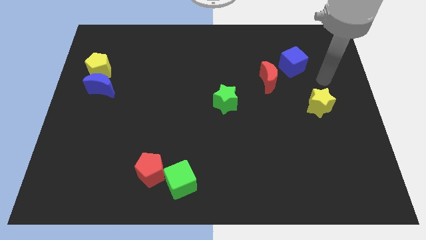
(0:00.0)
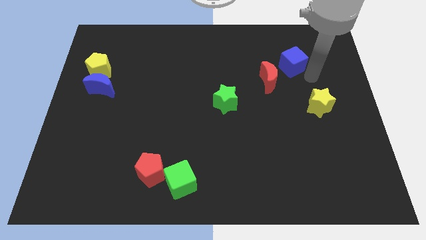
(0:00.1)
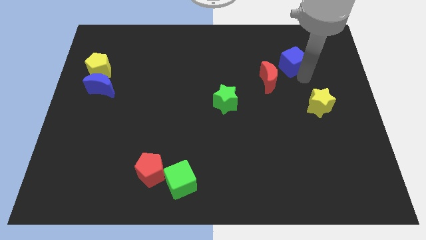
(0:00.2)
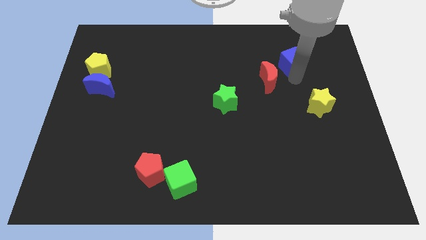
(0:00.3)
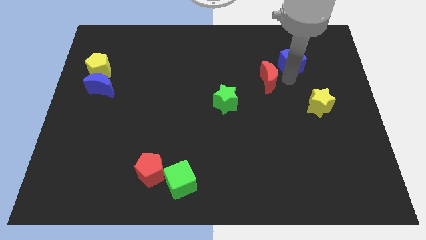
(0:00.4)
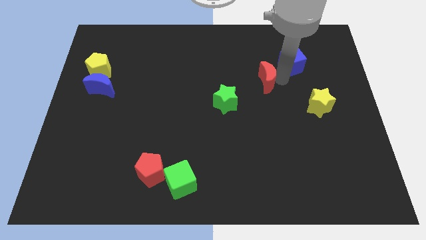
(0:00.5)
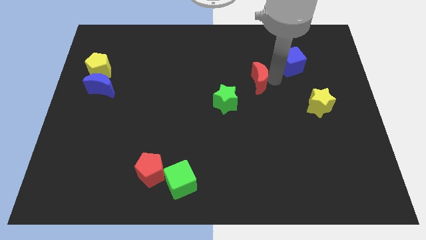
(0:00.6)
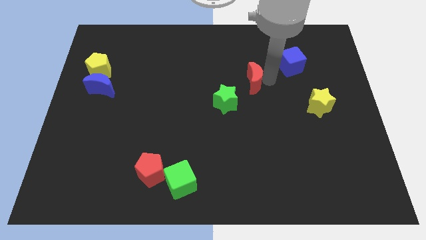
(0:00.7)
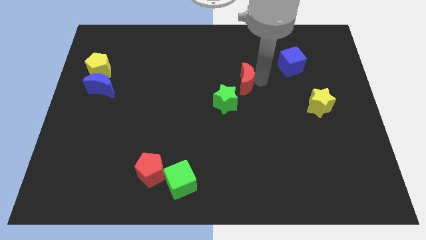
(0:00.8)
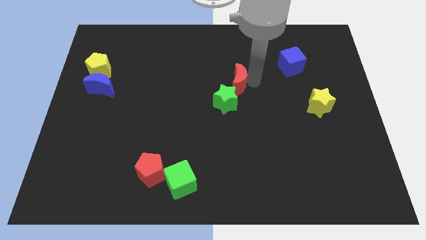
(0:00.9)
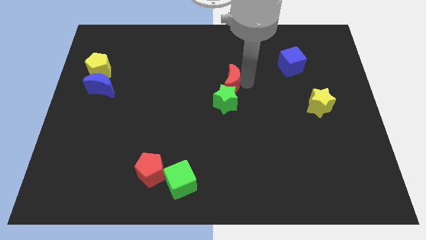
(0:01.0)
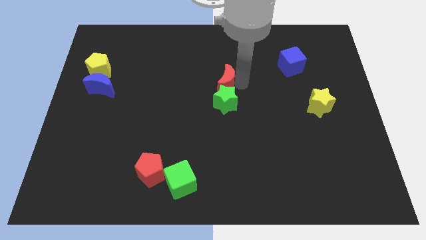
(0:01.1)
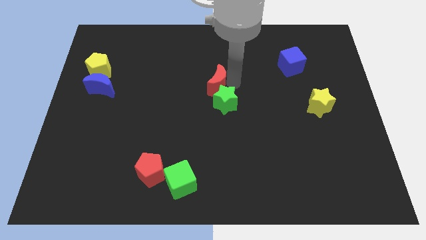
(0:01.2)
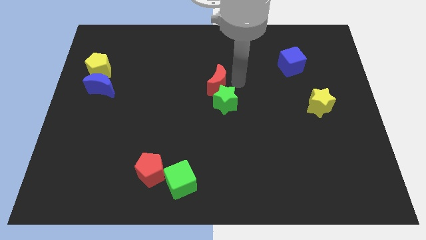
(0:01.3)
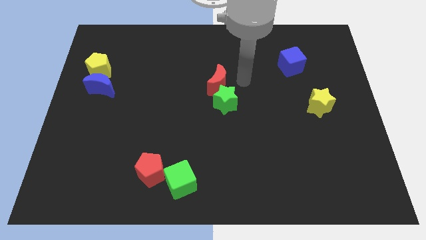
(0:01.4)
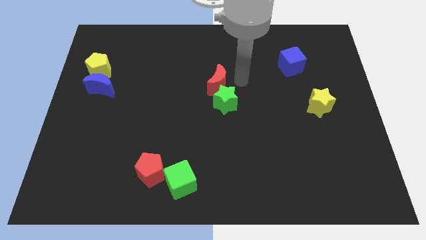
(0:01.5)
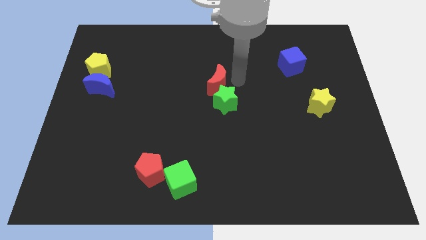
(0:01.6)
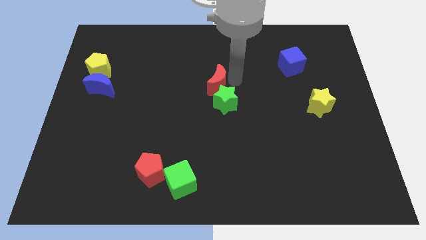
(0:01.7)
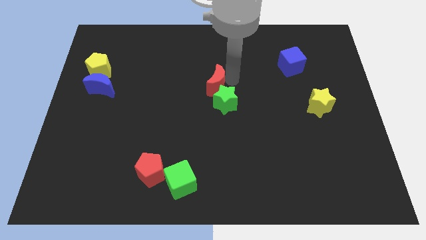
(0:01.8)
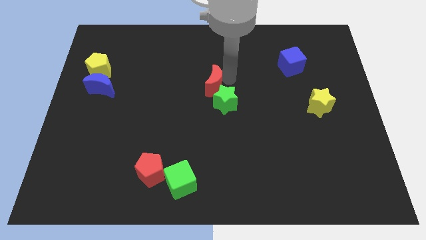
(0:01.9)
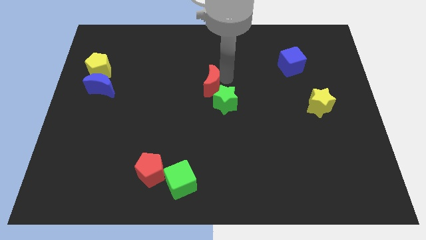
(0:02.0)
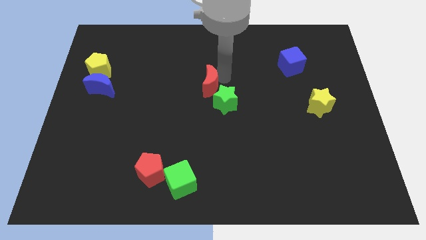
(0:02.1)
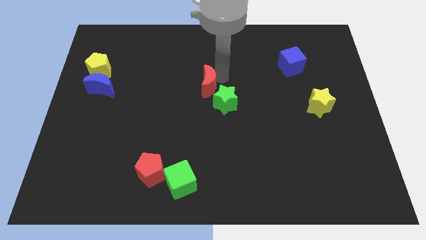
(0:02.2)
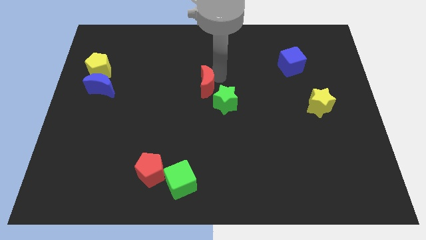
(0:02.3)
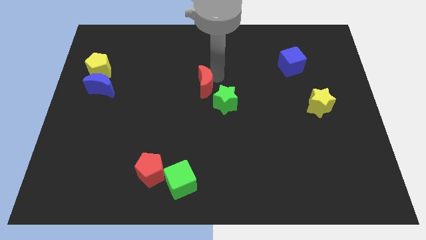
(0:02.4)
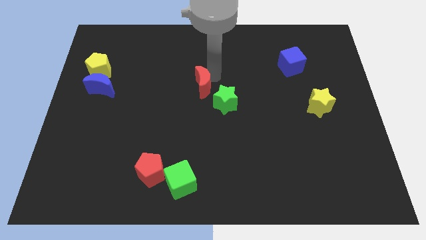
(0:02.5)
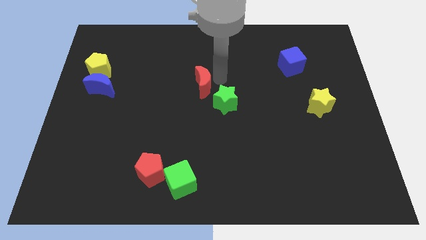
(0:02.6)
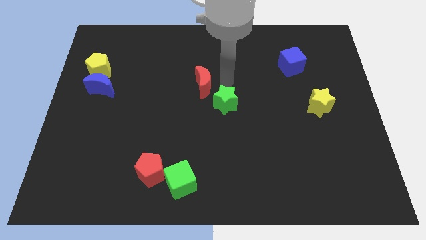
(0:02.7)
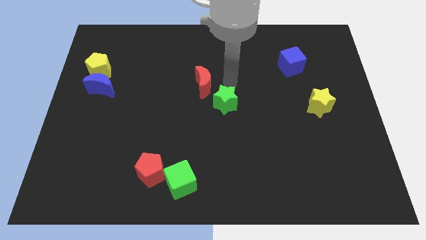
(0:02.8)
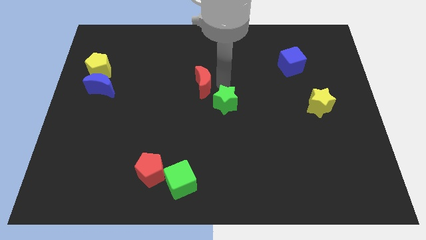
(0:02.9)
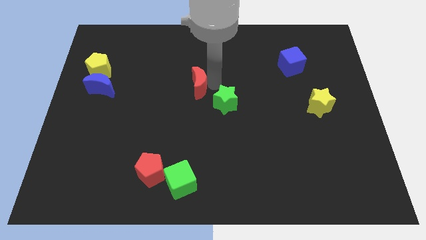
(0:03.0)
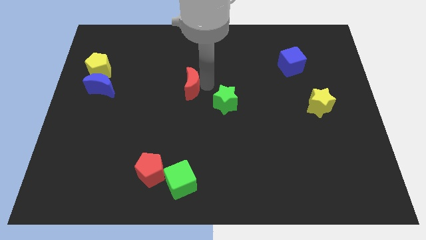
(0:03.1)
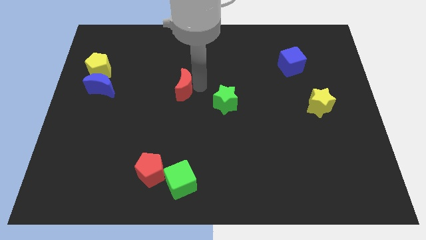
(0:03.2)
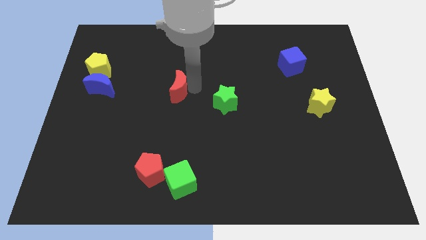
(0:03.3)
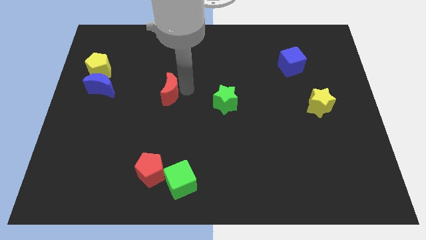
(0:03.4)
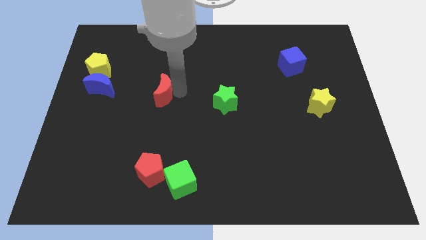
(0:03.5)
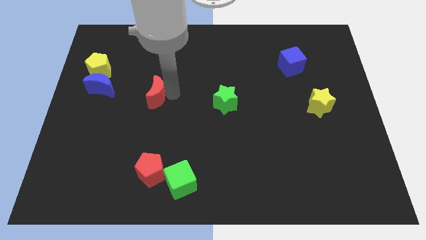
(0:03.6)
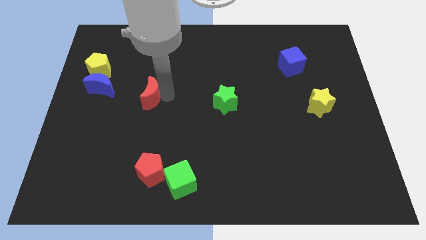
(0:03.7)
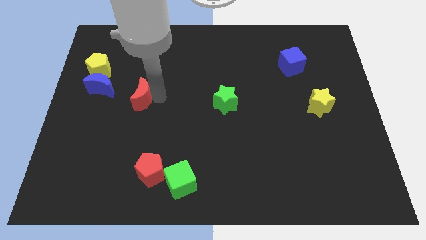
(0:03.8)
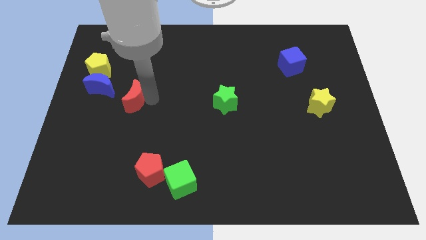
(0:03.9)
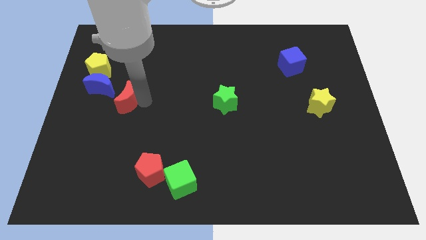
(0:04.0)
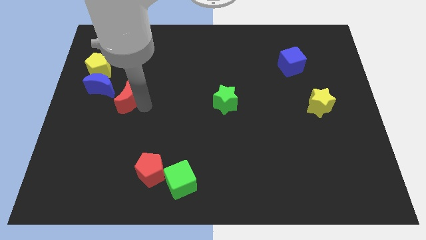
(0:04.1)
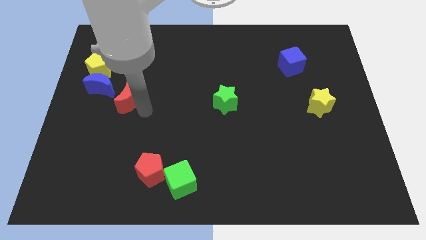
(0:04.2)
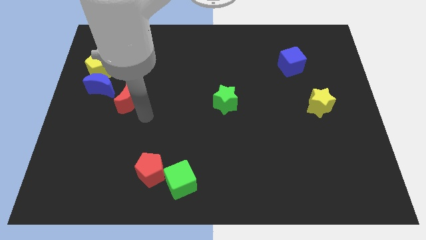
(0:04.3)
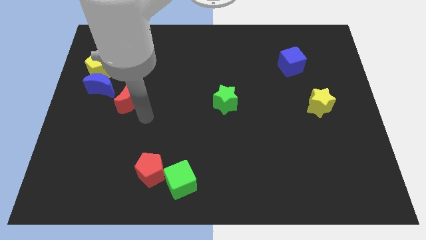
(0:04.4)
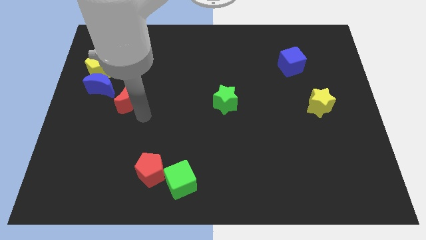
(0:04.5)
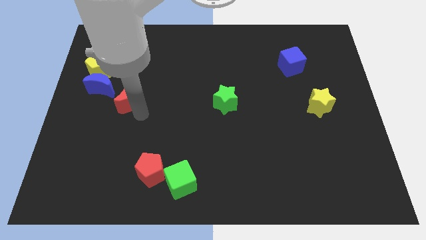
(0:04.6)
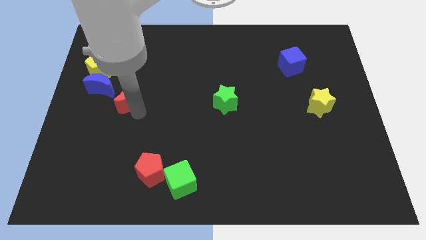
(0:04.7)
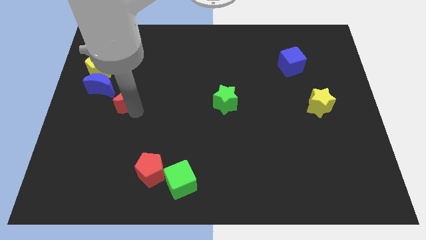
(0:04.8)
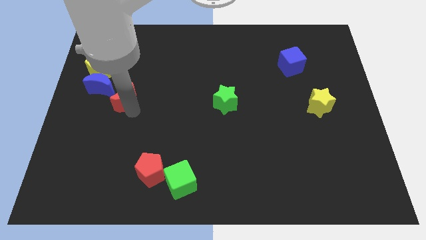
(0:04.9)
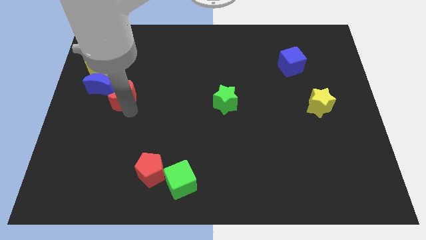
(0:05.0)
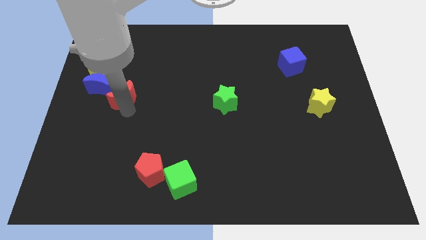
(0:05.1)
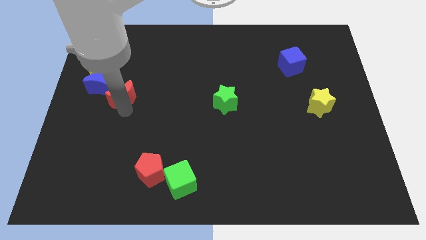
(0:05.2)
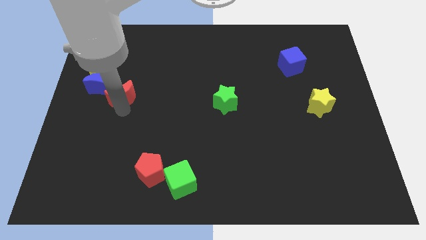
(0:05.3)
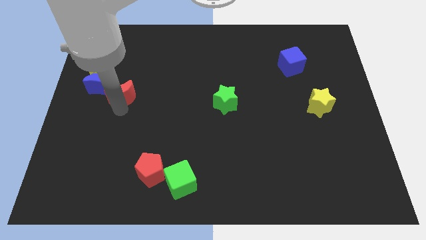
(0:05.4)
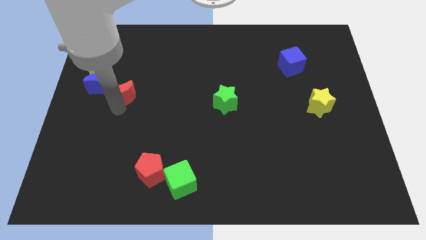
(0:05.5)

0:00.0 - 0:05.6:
put the red moon close to the blue moon

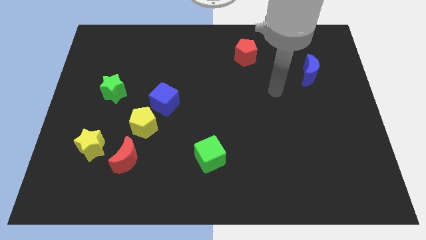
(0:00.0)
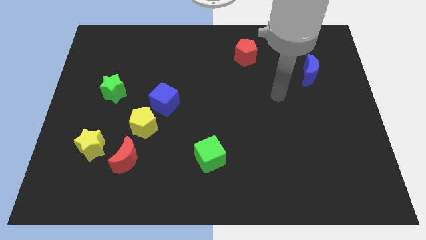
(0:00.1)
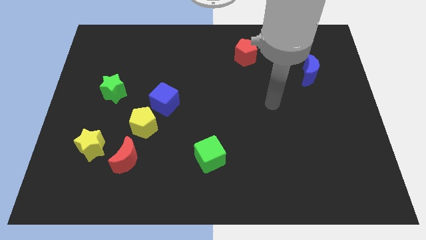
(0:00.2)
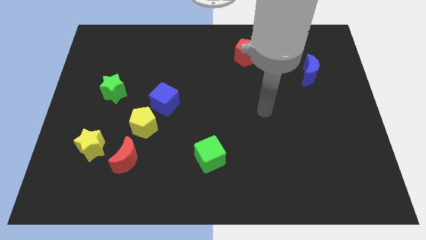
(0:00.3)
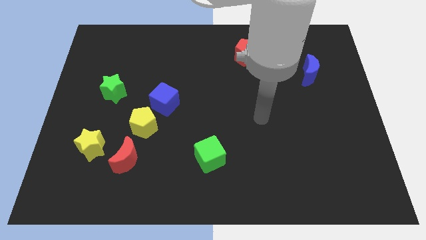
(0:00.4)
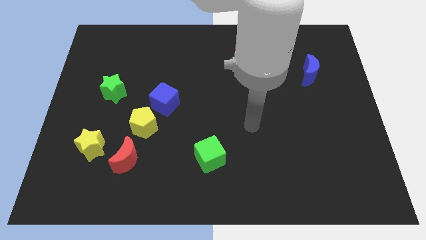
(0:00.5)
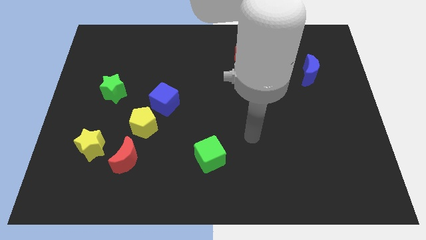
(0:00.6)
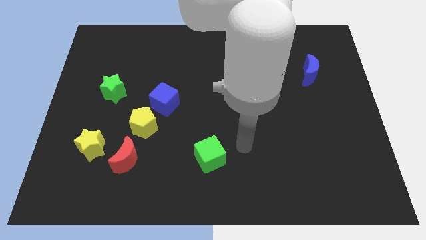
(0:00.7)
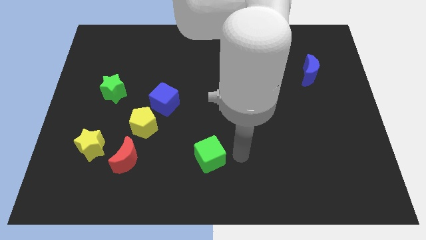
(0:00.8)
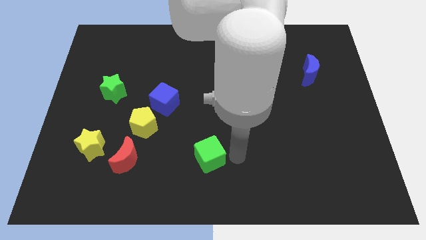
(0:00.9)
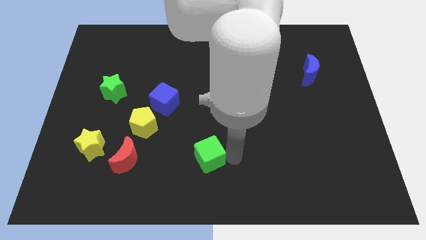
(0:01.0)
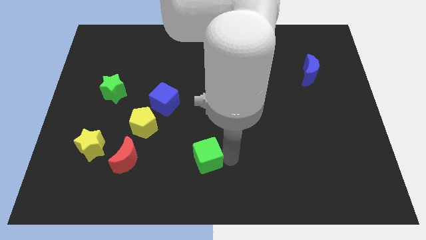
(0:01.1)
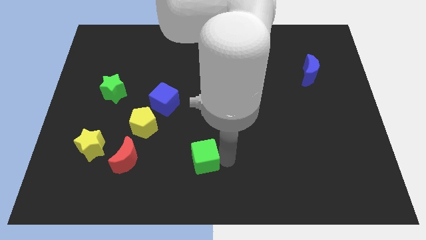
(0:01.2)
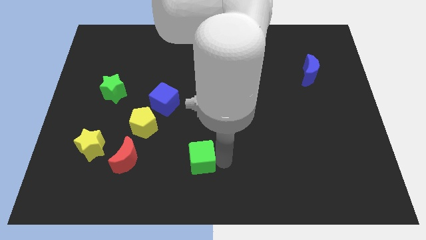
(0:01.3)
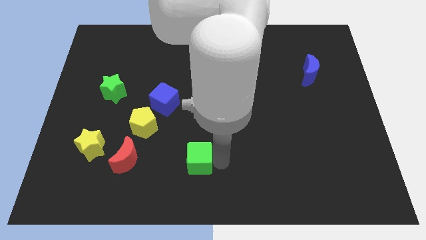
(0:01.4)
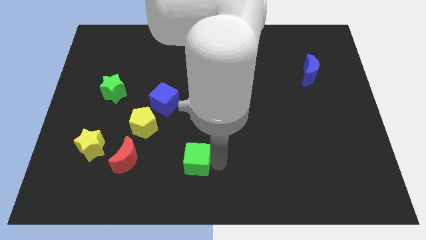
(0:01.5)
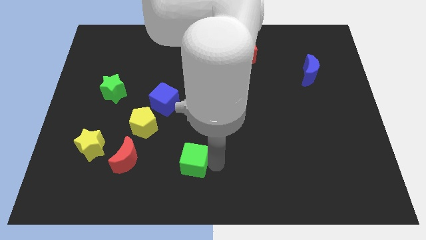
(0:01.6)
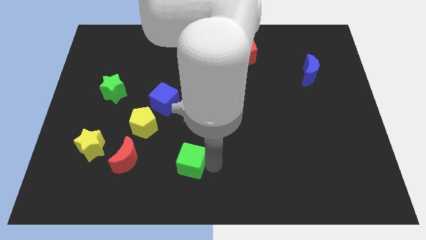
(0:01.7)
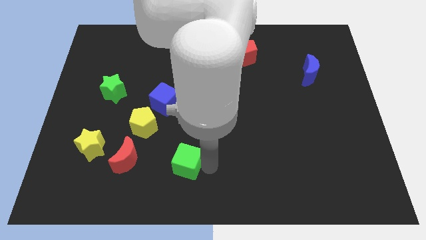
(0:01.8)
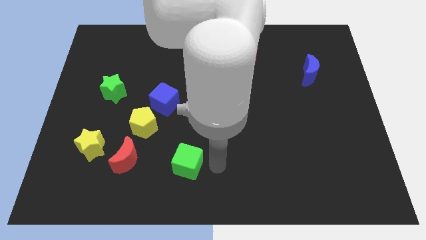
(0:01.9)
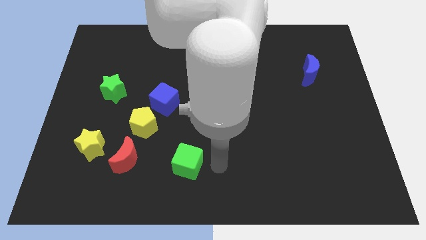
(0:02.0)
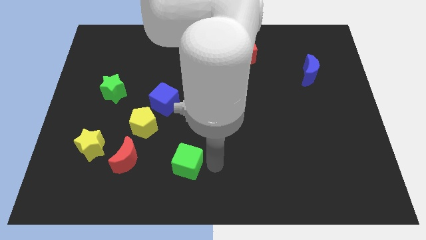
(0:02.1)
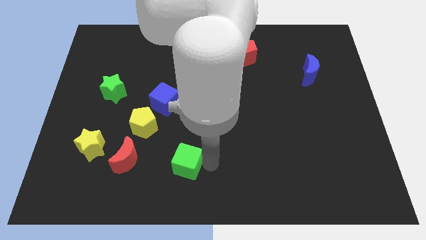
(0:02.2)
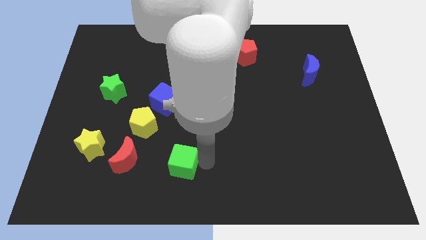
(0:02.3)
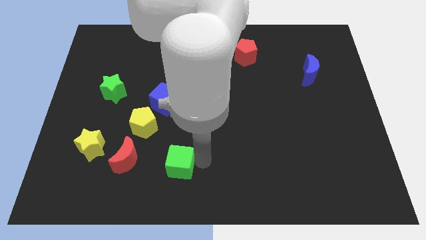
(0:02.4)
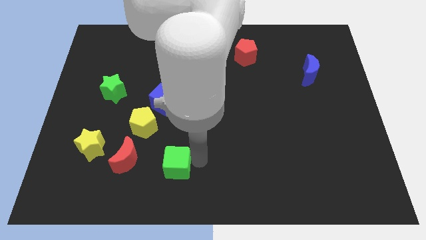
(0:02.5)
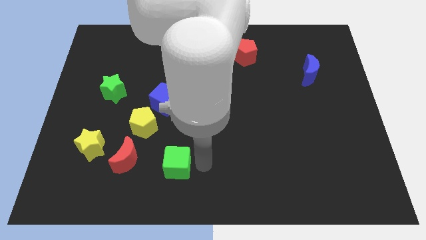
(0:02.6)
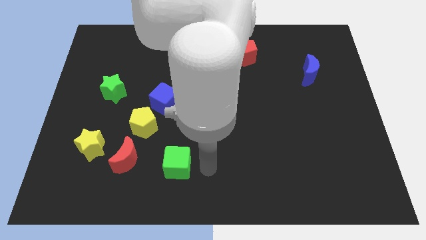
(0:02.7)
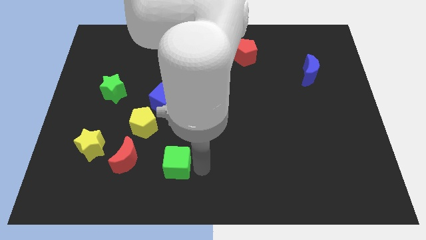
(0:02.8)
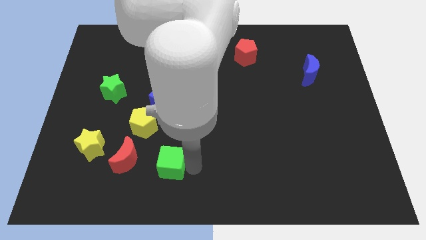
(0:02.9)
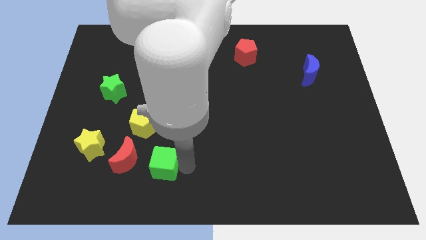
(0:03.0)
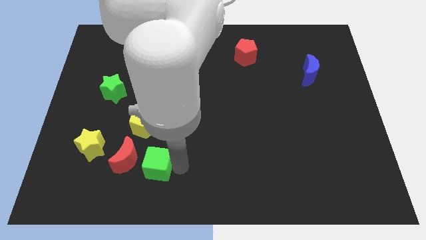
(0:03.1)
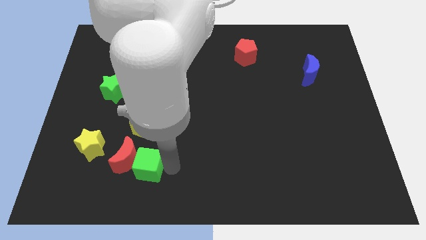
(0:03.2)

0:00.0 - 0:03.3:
push the green cube to the red moon
